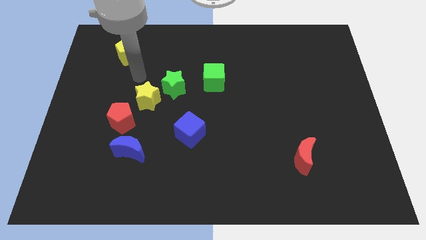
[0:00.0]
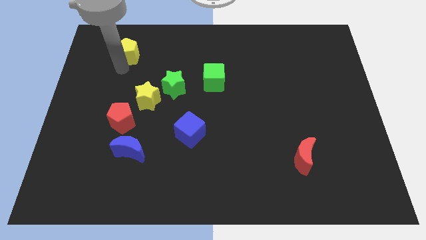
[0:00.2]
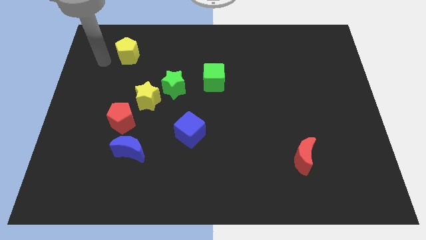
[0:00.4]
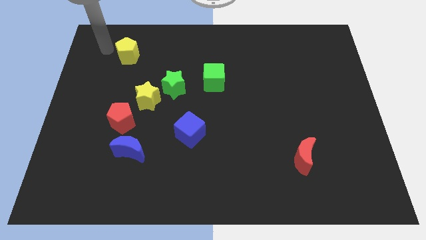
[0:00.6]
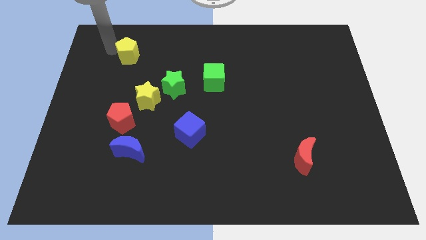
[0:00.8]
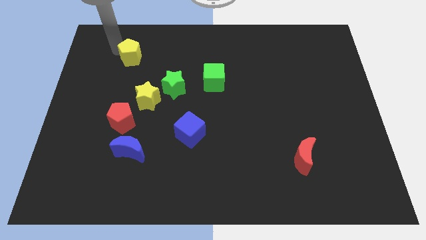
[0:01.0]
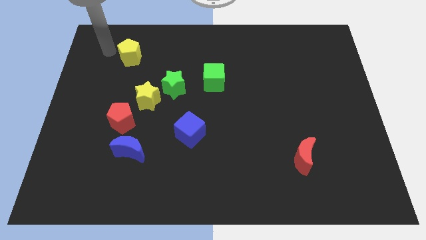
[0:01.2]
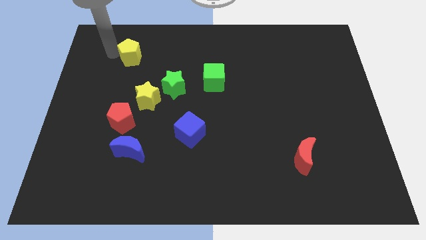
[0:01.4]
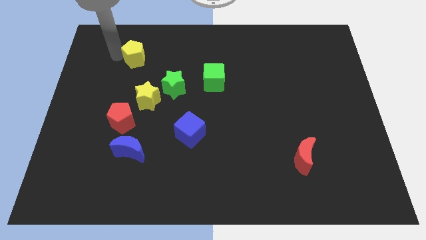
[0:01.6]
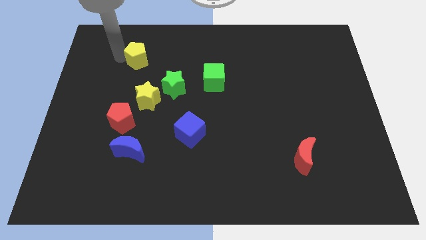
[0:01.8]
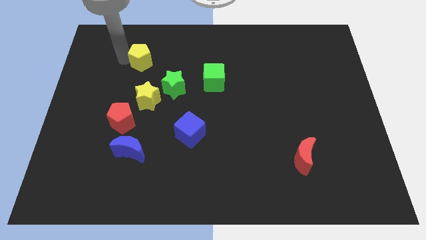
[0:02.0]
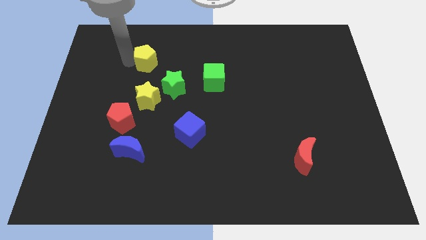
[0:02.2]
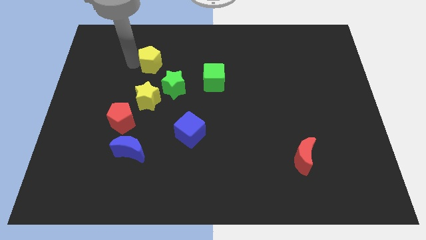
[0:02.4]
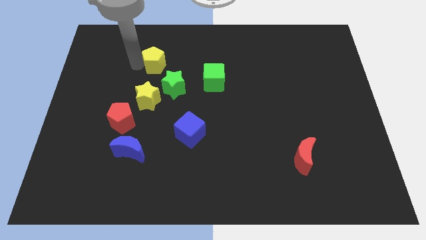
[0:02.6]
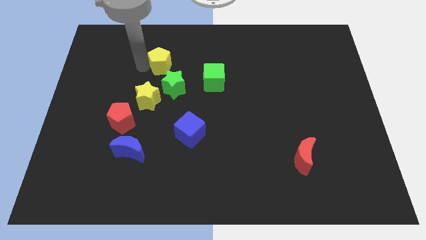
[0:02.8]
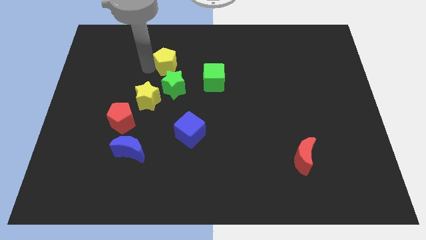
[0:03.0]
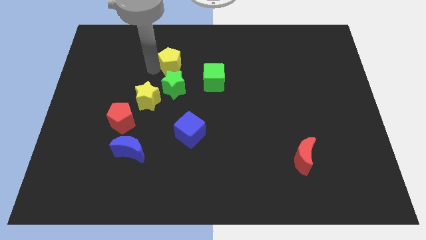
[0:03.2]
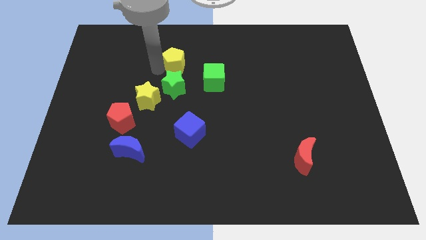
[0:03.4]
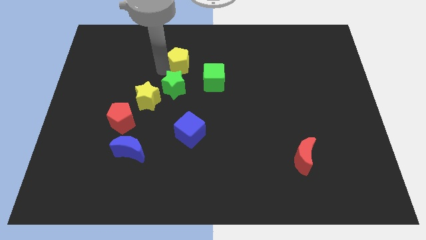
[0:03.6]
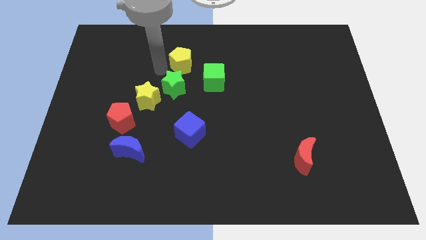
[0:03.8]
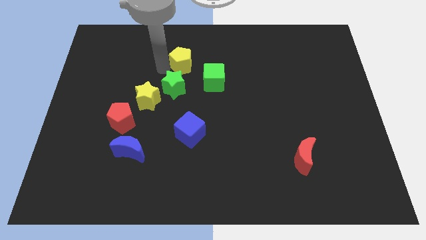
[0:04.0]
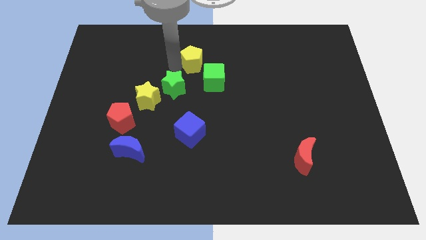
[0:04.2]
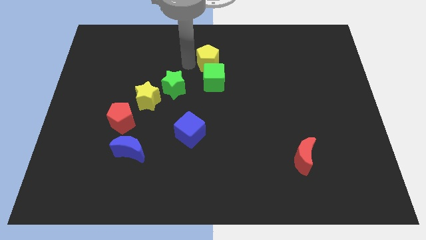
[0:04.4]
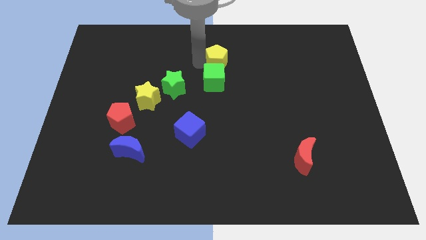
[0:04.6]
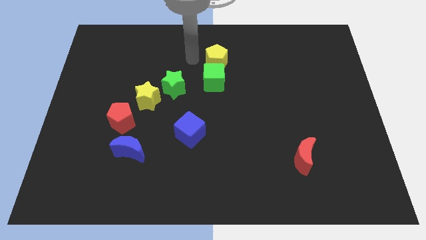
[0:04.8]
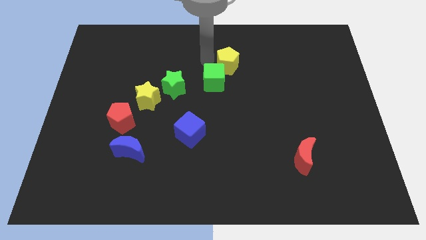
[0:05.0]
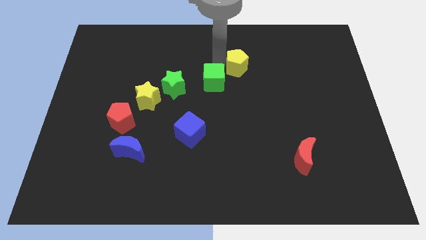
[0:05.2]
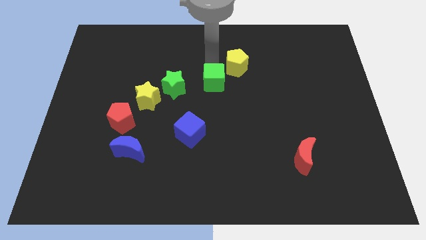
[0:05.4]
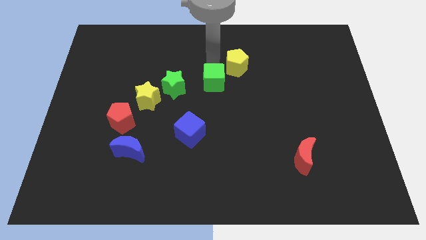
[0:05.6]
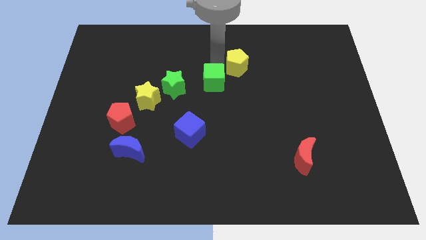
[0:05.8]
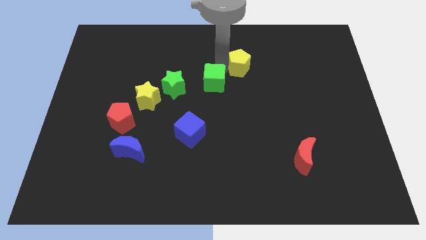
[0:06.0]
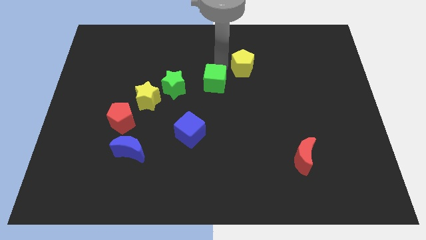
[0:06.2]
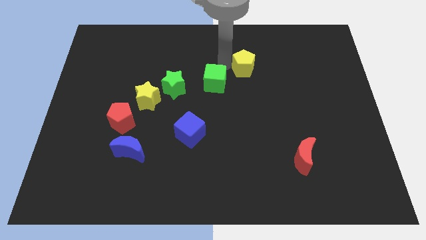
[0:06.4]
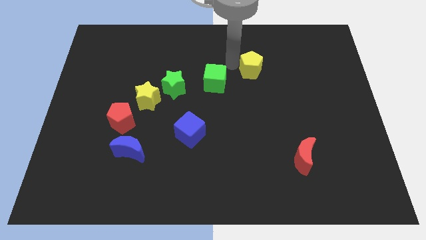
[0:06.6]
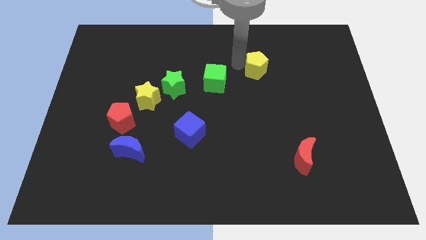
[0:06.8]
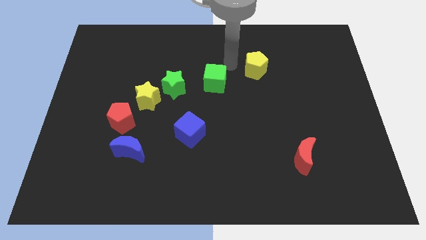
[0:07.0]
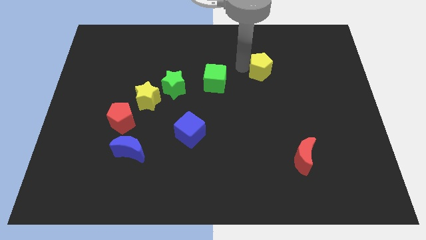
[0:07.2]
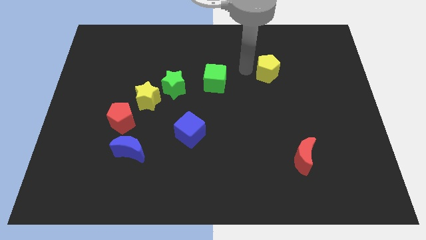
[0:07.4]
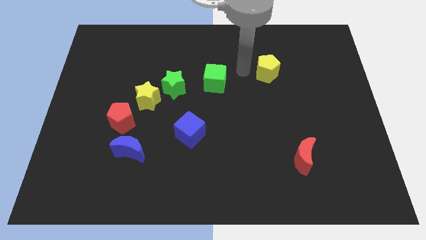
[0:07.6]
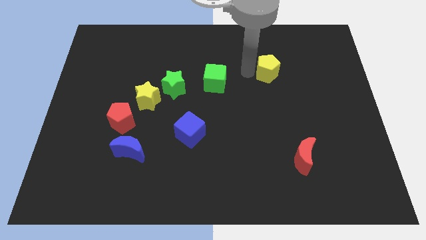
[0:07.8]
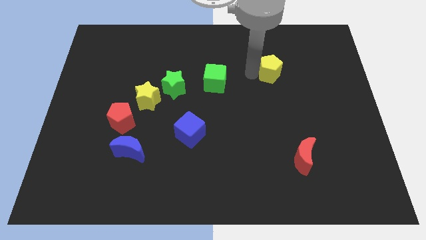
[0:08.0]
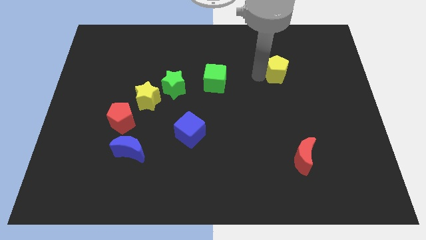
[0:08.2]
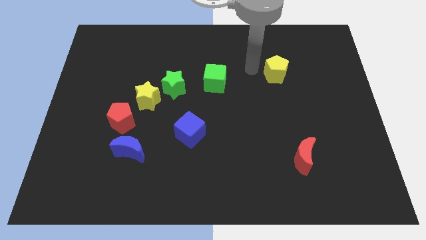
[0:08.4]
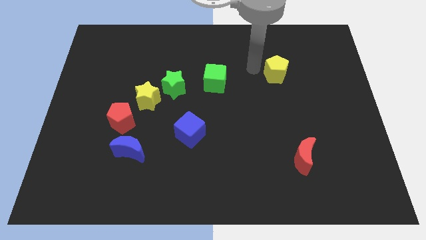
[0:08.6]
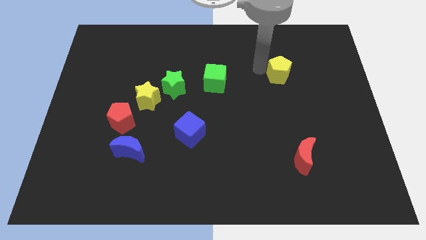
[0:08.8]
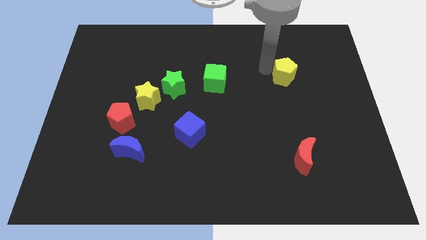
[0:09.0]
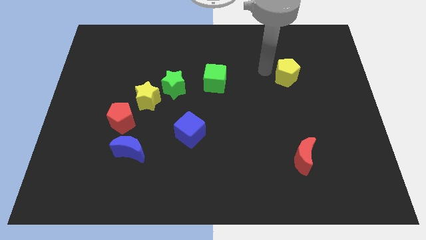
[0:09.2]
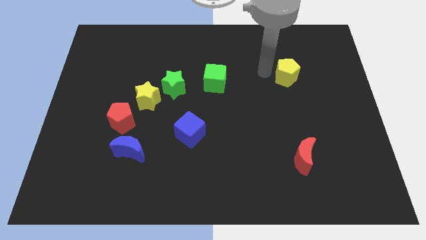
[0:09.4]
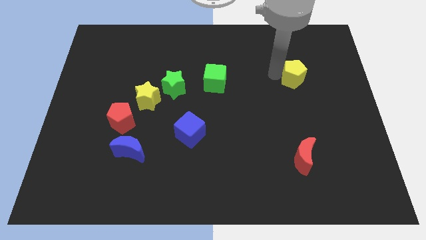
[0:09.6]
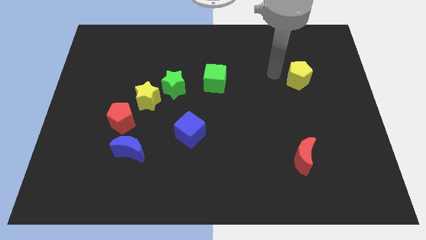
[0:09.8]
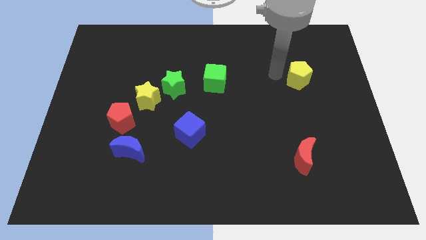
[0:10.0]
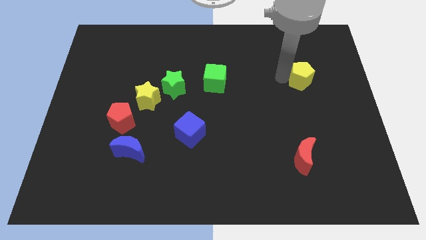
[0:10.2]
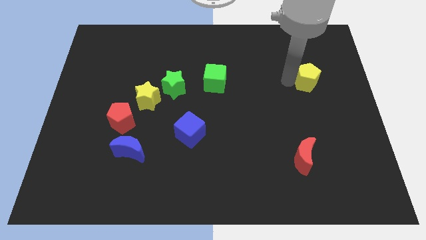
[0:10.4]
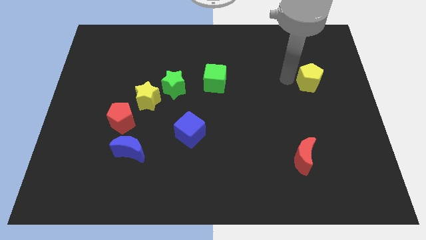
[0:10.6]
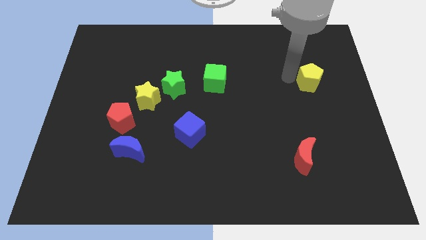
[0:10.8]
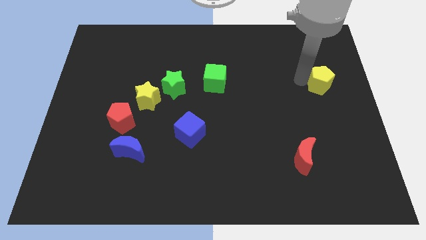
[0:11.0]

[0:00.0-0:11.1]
slide the yellow pentagon to the center right

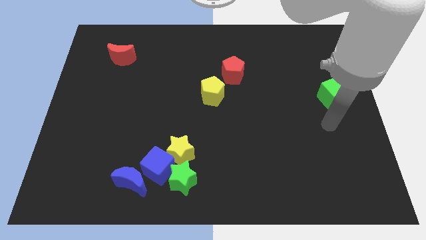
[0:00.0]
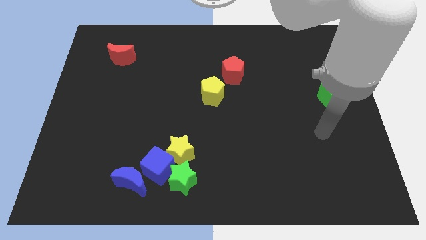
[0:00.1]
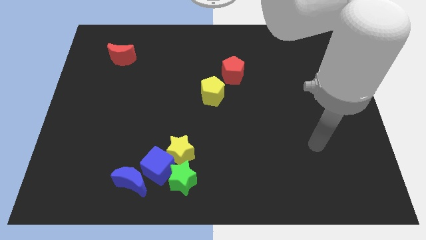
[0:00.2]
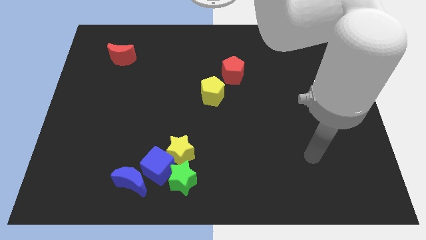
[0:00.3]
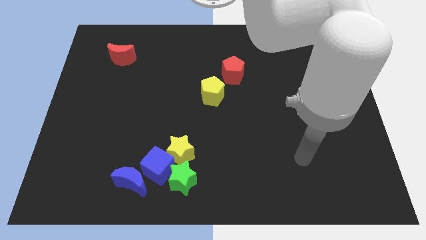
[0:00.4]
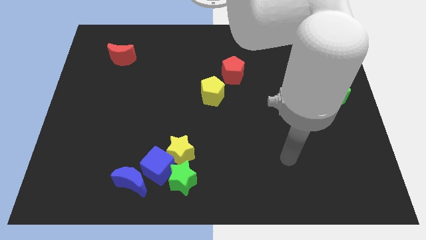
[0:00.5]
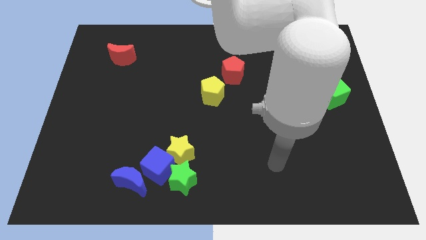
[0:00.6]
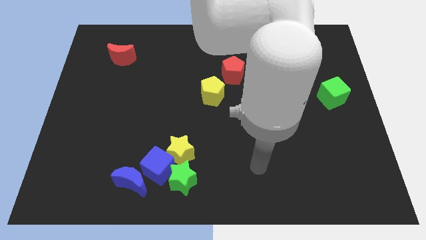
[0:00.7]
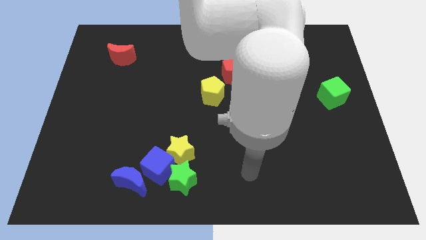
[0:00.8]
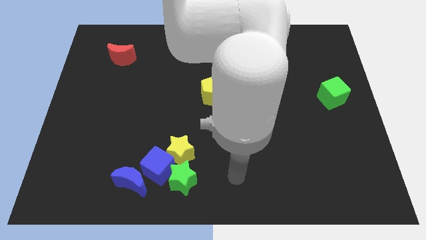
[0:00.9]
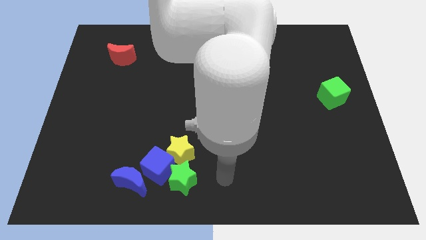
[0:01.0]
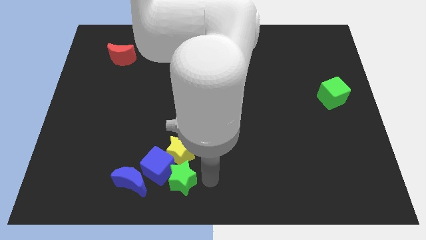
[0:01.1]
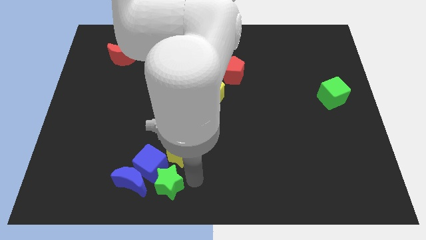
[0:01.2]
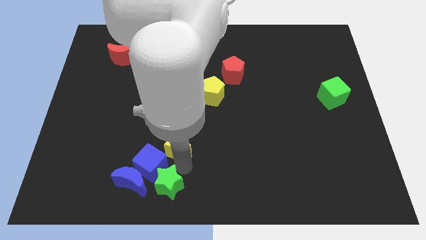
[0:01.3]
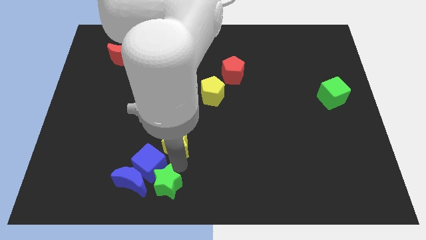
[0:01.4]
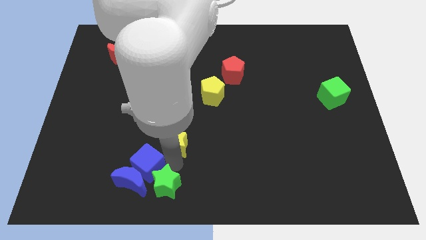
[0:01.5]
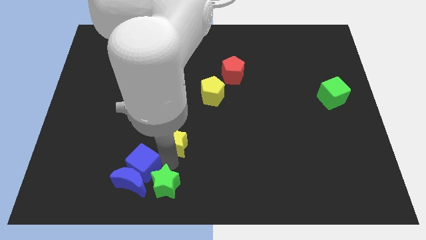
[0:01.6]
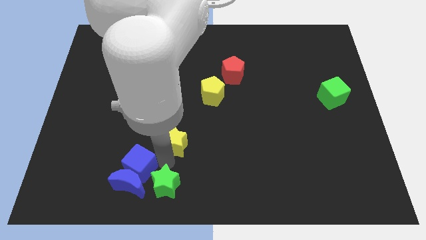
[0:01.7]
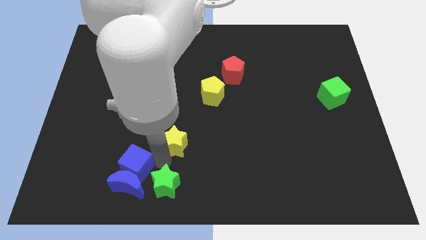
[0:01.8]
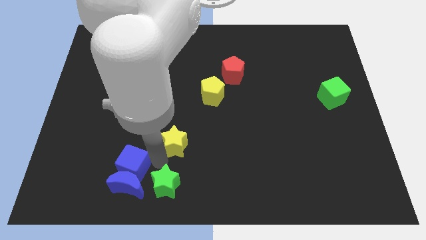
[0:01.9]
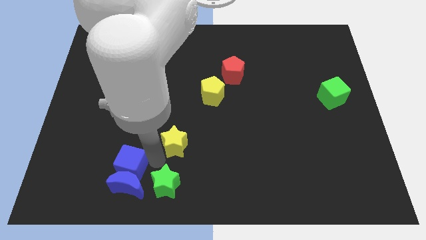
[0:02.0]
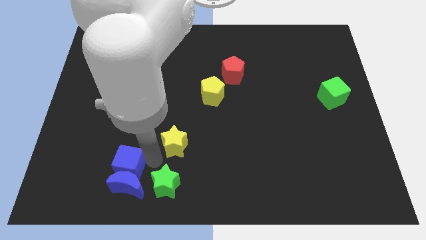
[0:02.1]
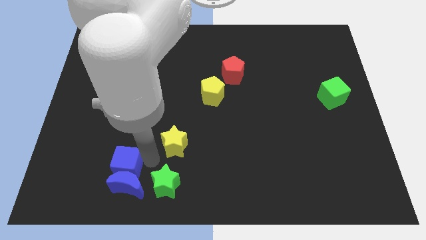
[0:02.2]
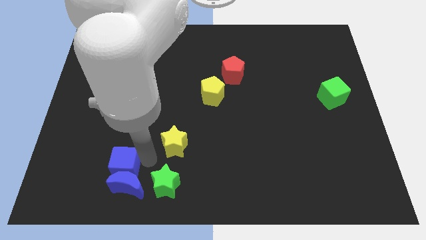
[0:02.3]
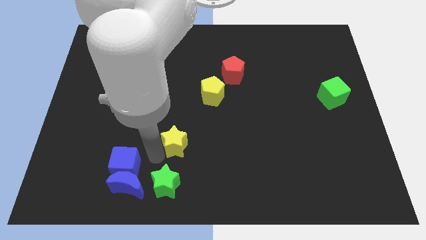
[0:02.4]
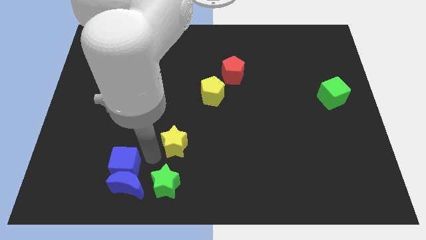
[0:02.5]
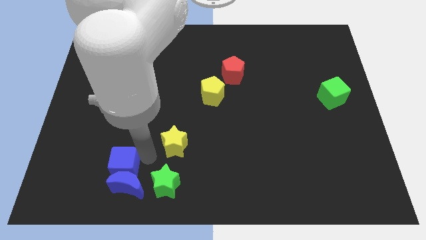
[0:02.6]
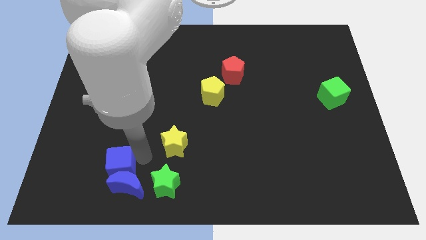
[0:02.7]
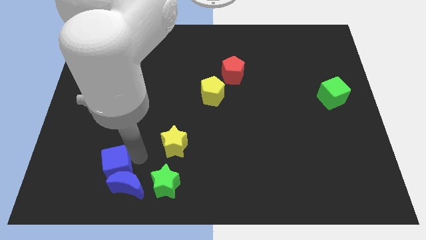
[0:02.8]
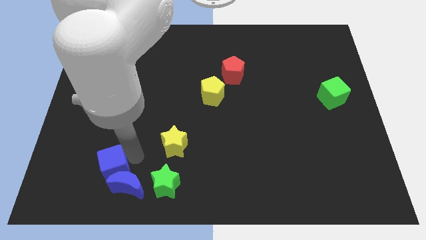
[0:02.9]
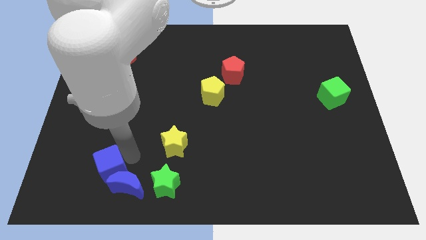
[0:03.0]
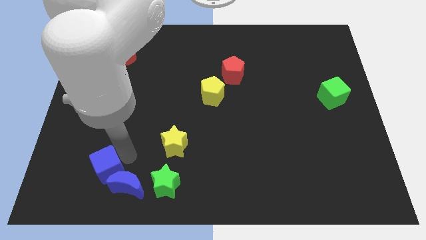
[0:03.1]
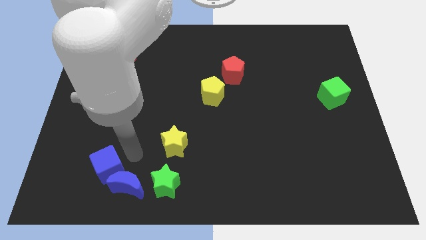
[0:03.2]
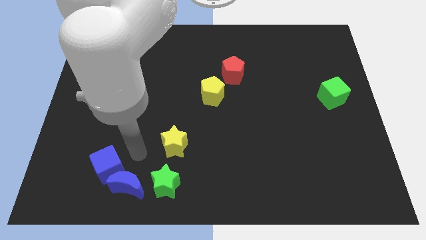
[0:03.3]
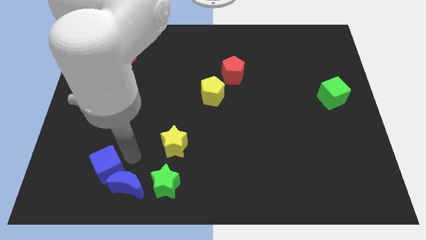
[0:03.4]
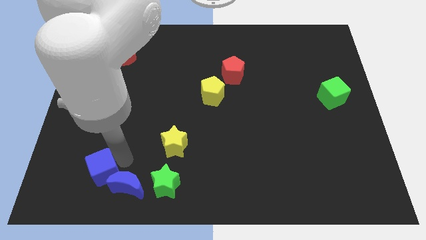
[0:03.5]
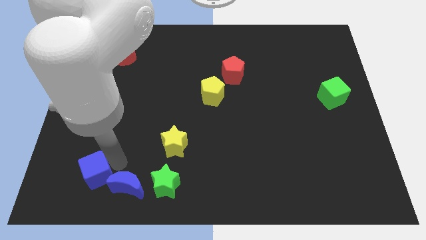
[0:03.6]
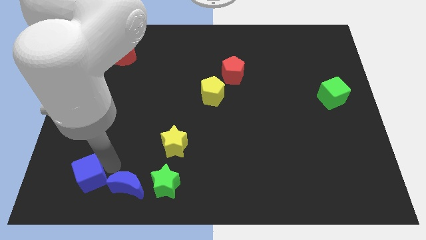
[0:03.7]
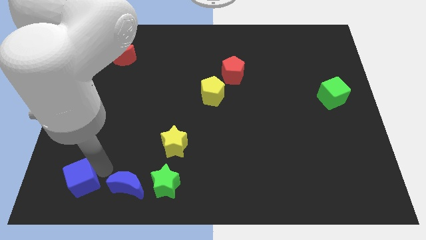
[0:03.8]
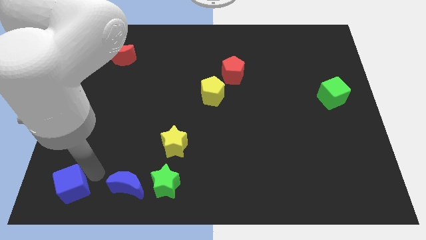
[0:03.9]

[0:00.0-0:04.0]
move the blue cube to the lower left corner
